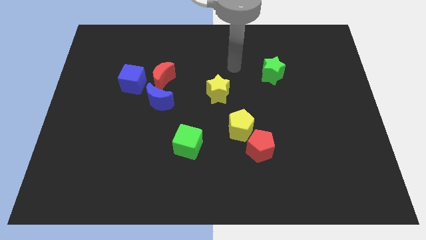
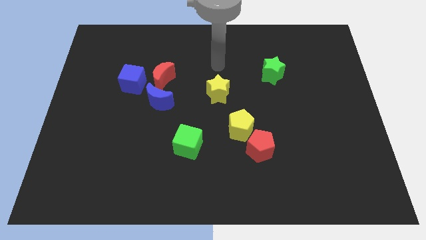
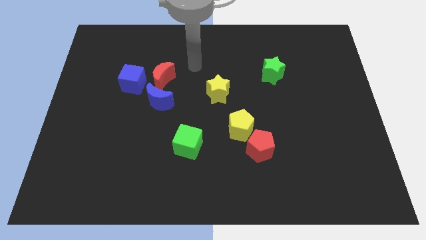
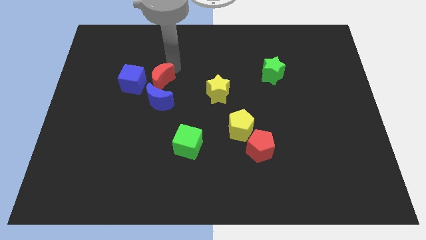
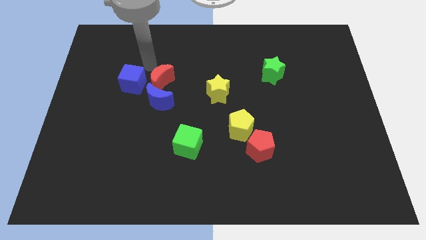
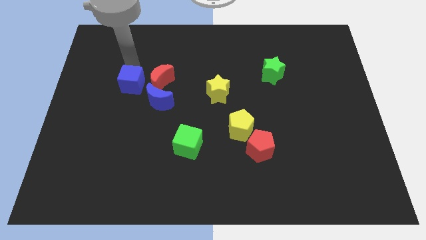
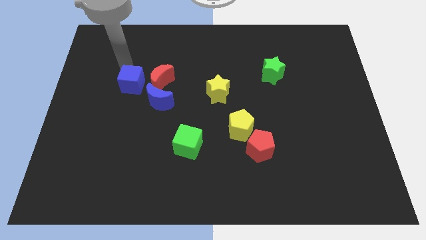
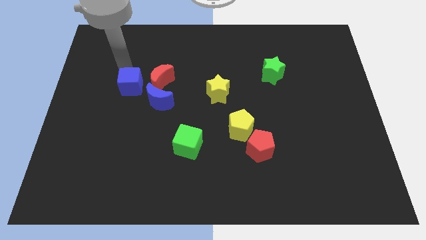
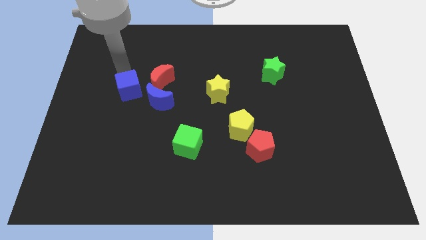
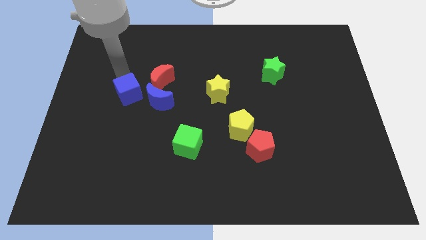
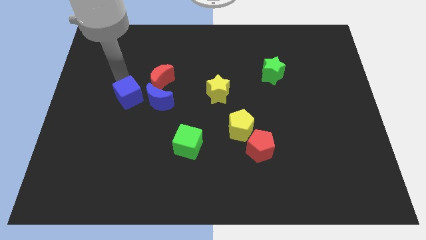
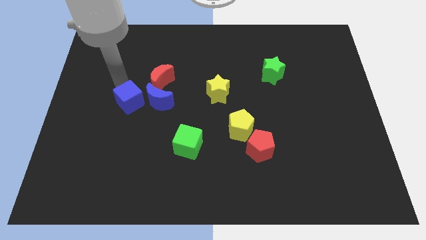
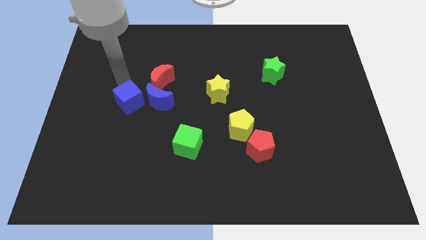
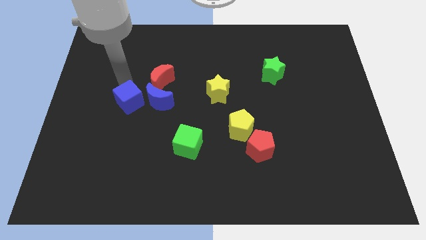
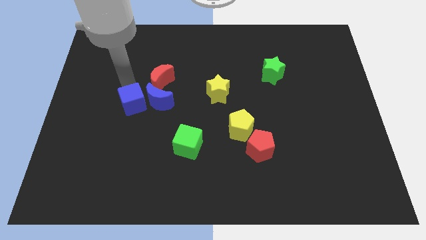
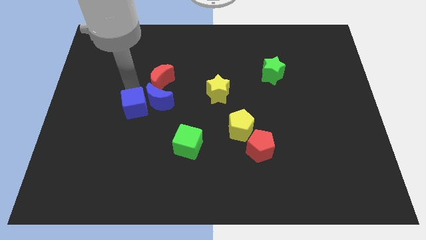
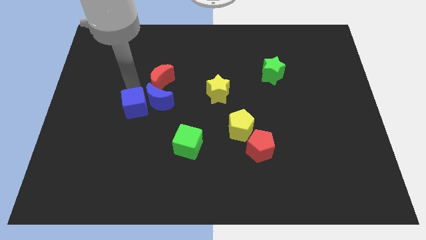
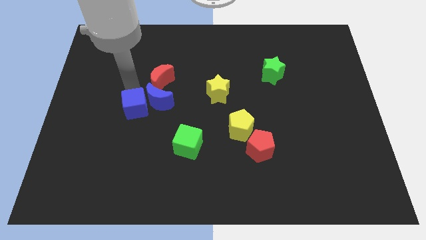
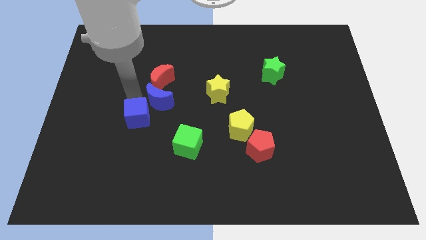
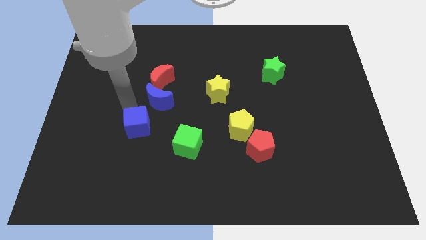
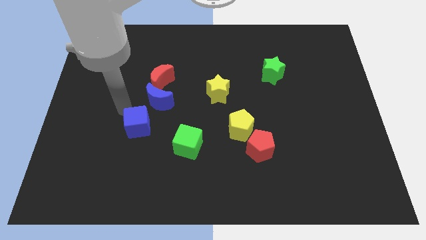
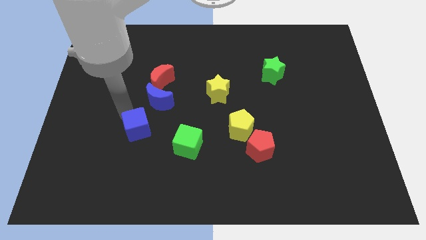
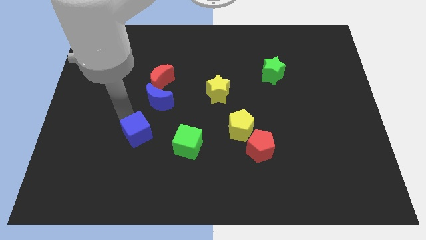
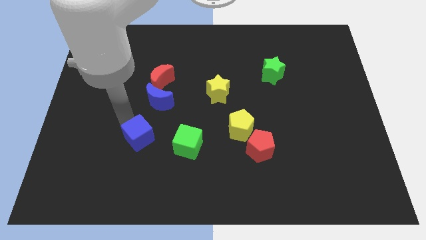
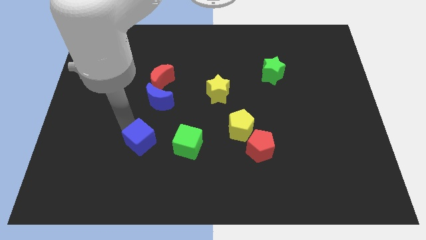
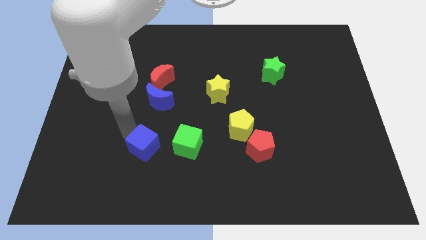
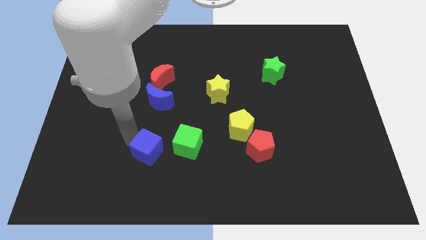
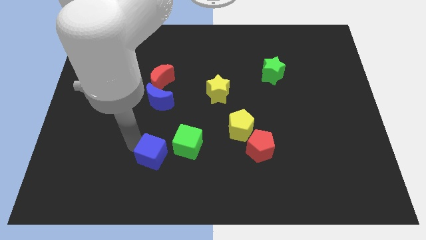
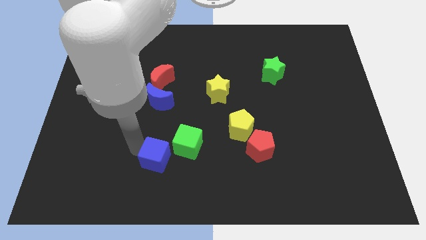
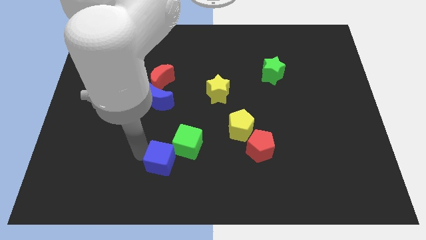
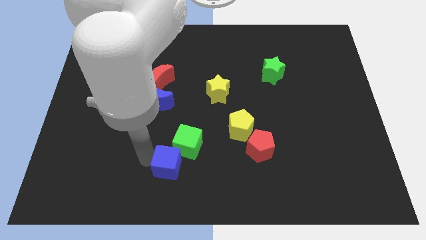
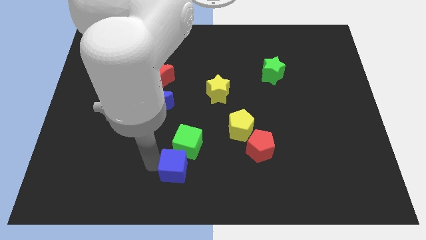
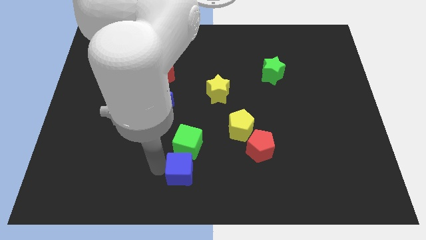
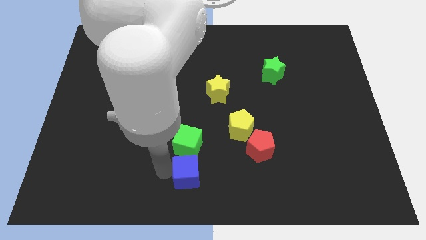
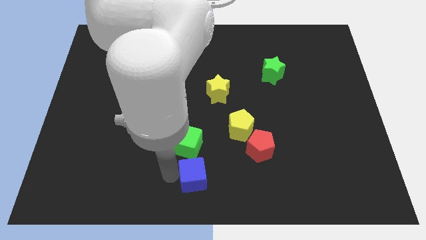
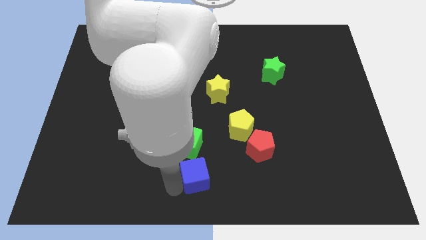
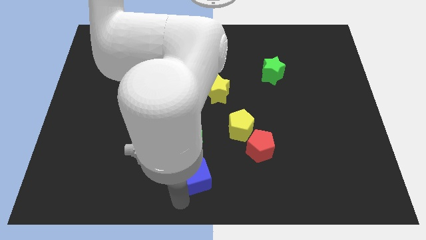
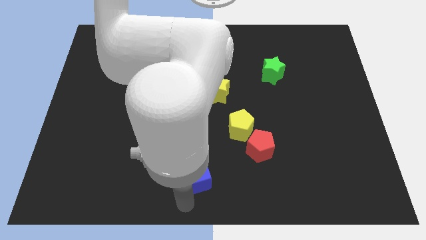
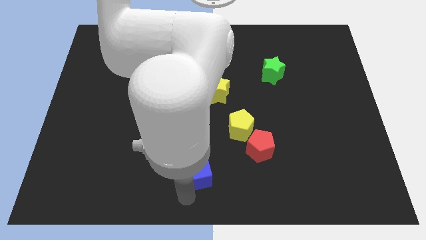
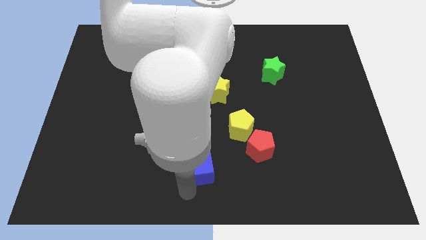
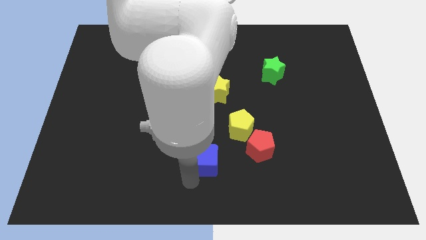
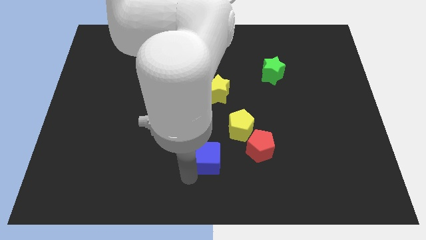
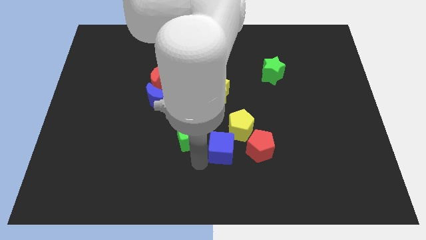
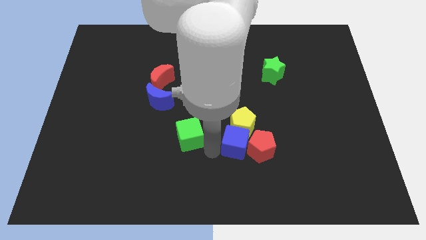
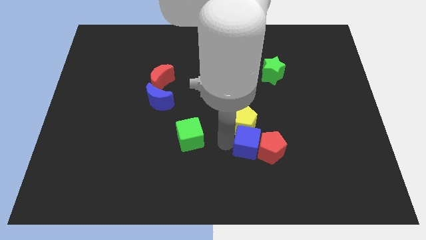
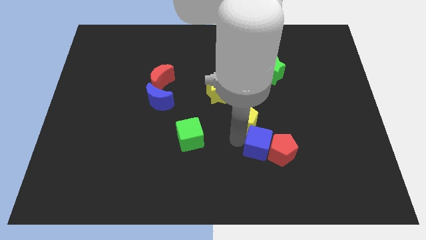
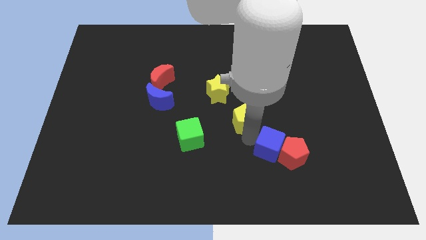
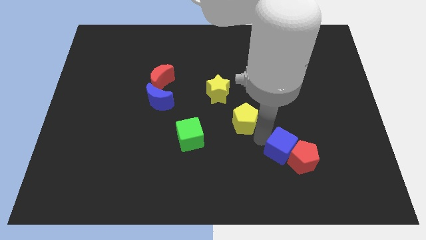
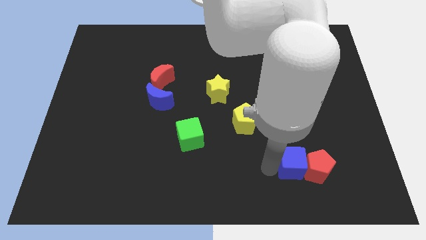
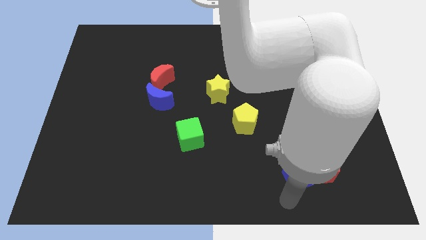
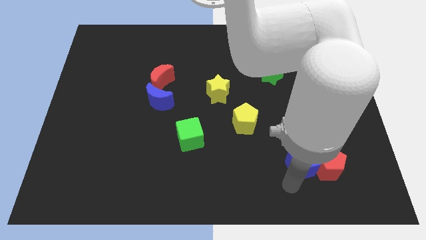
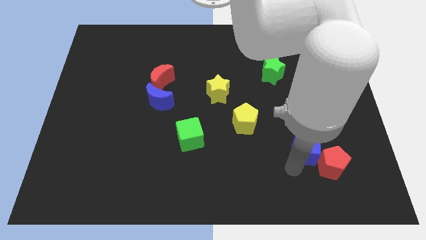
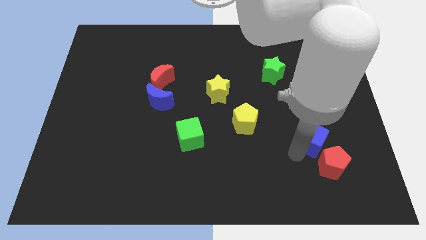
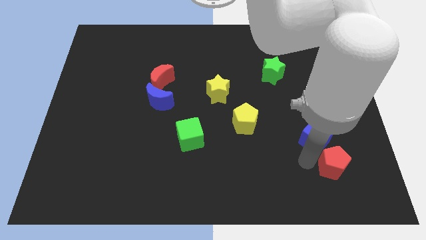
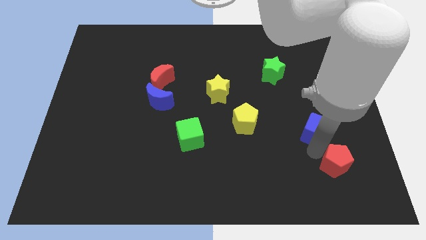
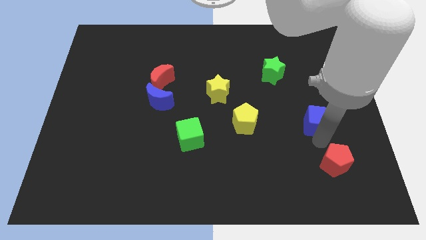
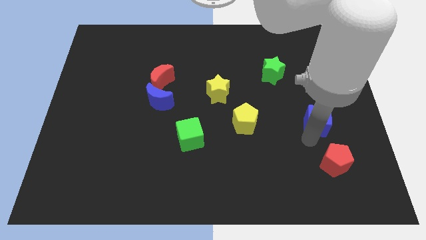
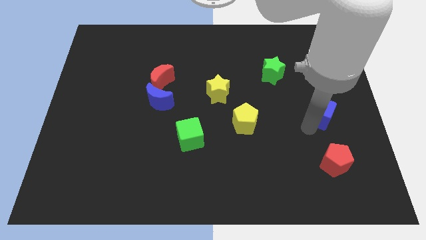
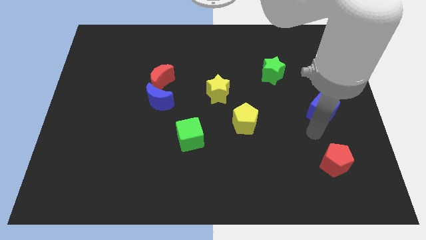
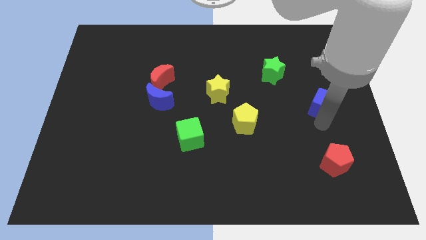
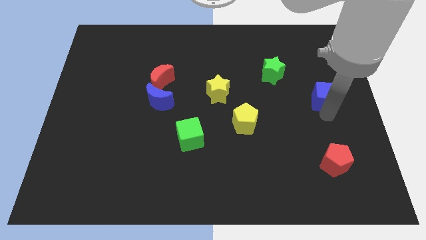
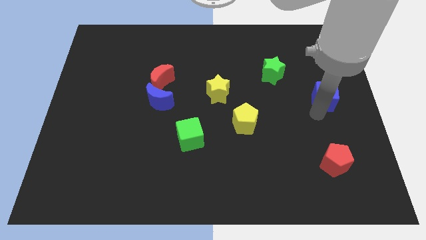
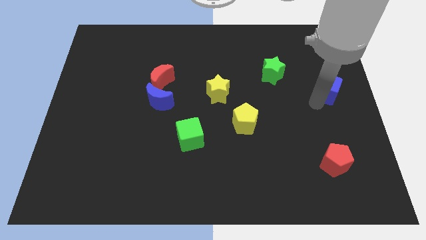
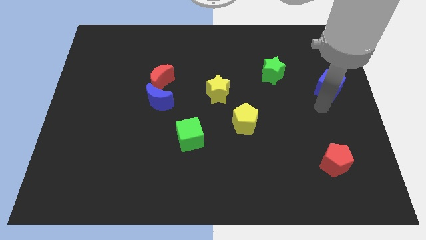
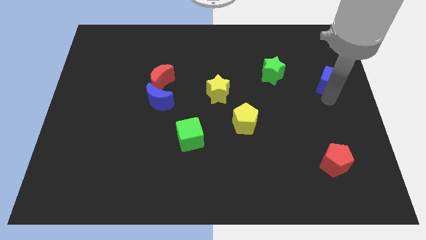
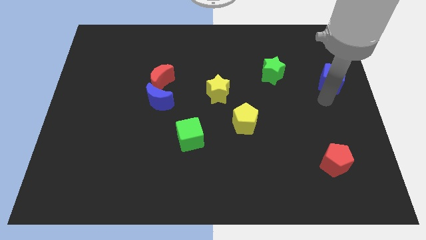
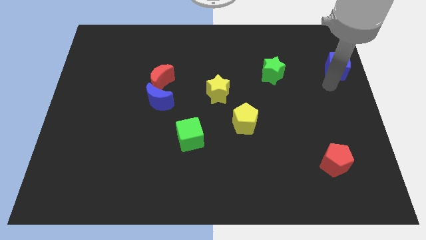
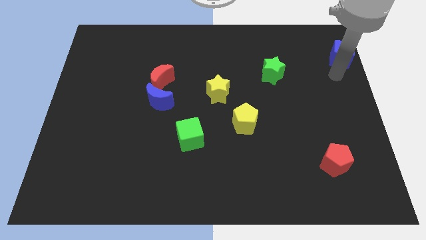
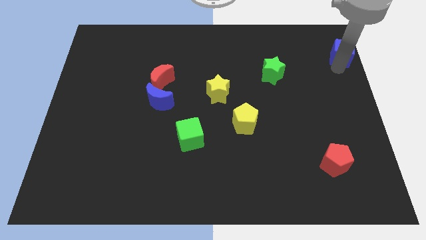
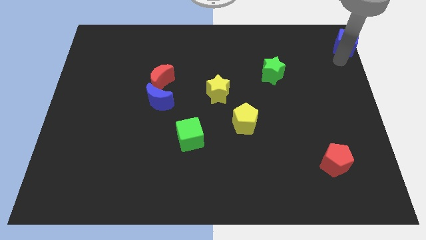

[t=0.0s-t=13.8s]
put the blue cube to the top right of the board
